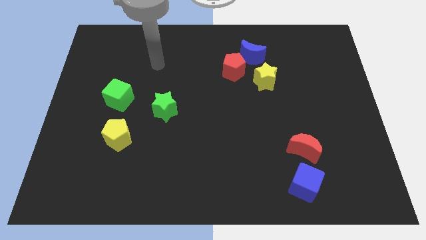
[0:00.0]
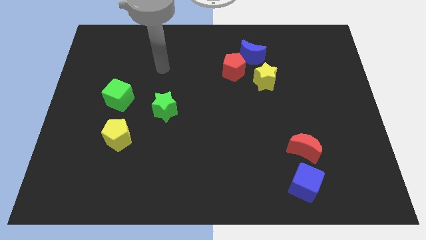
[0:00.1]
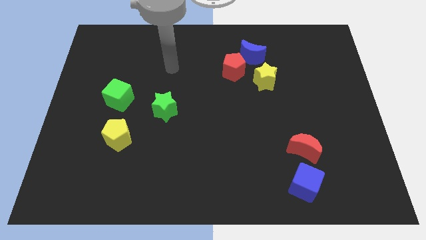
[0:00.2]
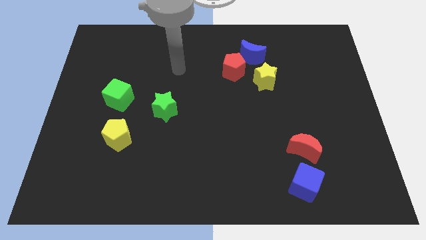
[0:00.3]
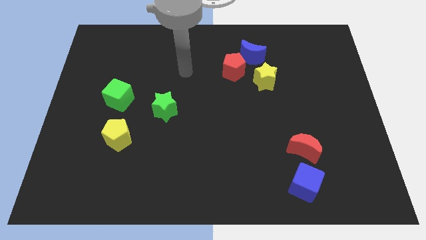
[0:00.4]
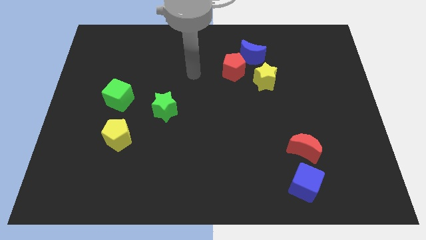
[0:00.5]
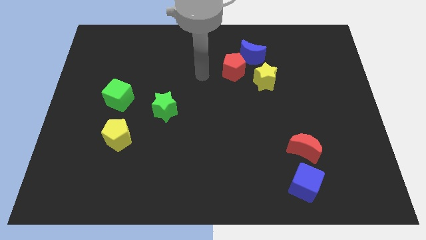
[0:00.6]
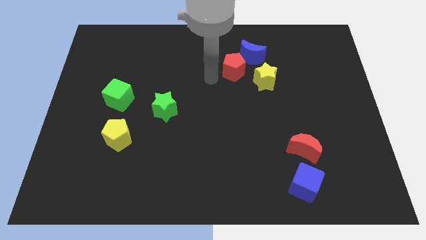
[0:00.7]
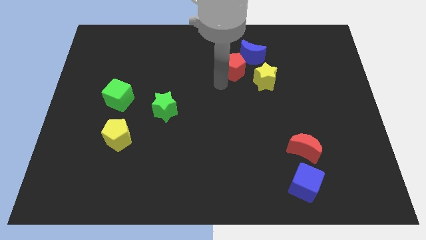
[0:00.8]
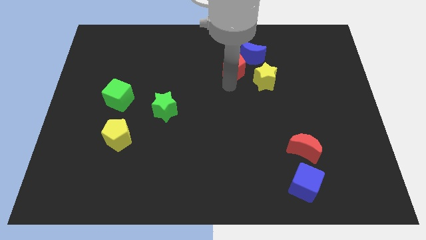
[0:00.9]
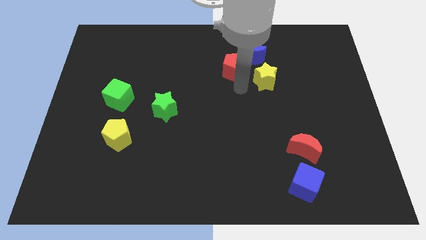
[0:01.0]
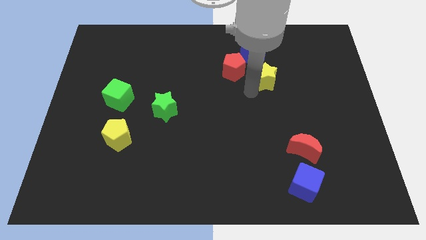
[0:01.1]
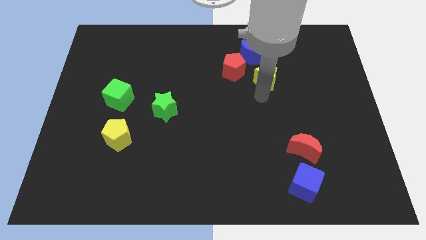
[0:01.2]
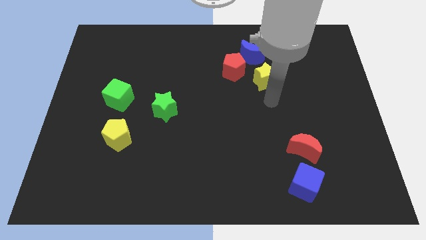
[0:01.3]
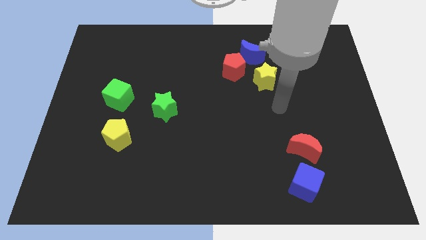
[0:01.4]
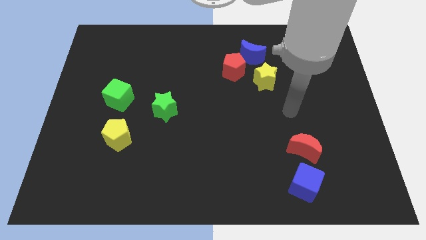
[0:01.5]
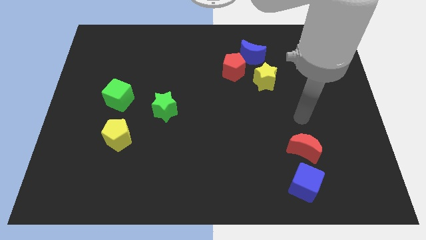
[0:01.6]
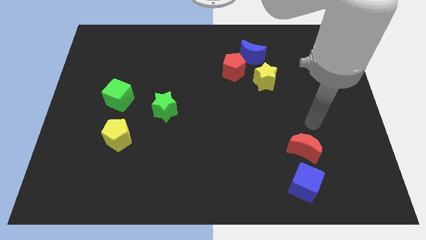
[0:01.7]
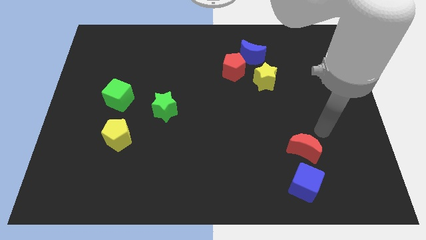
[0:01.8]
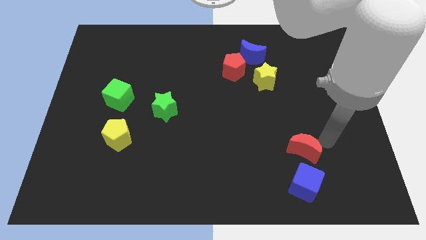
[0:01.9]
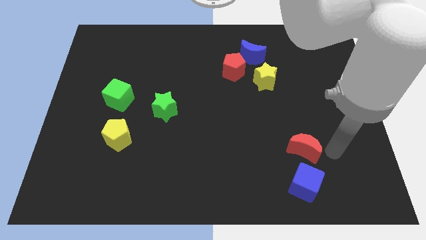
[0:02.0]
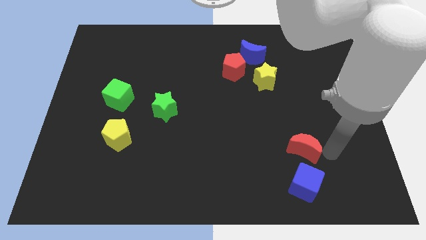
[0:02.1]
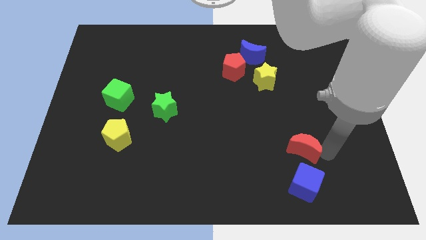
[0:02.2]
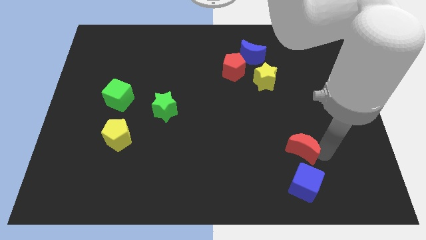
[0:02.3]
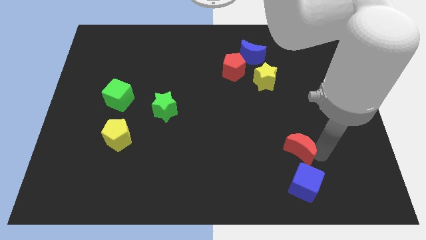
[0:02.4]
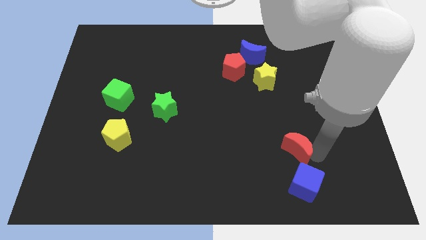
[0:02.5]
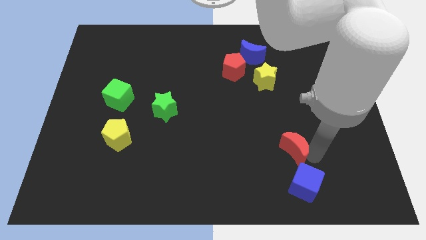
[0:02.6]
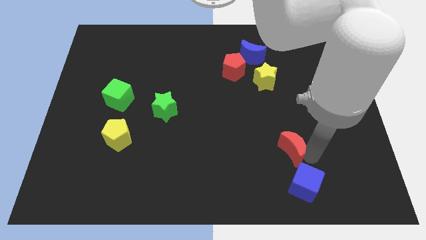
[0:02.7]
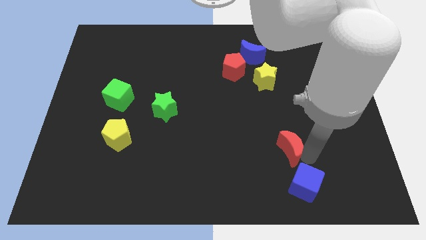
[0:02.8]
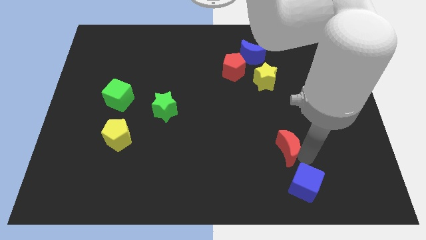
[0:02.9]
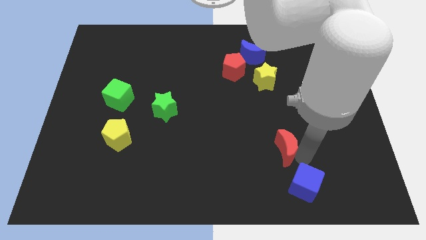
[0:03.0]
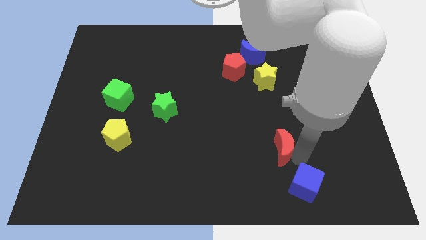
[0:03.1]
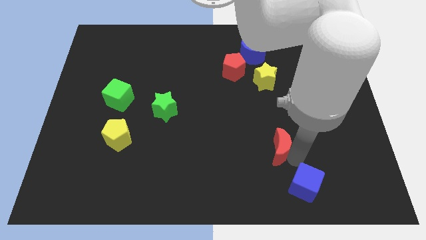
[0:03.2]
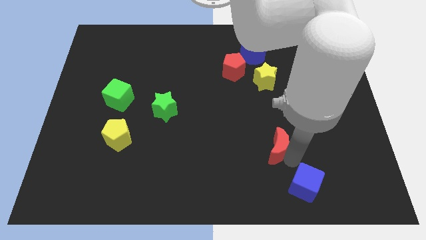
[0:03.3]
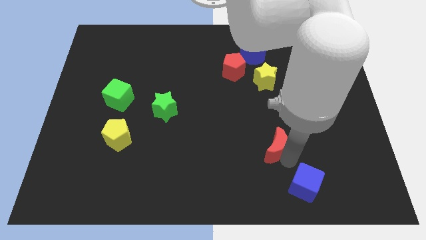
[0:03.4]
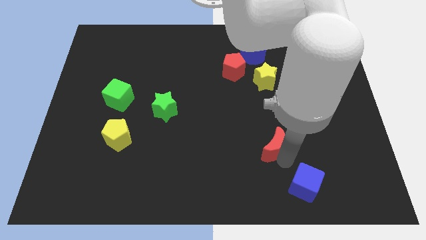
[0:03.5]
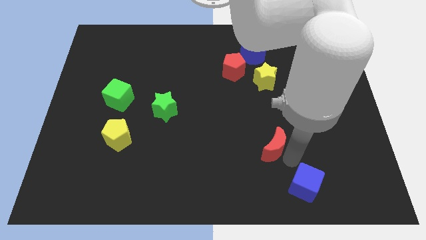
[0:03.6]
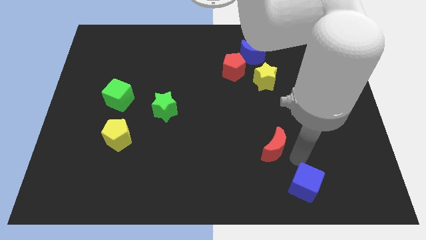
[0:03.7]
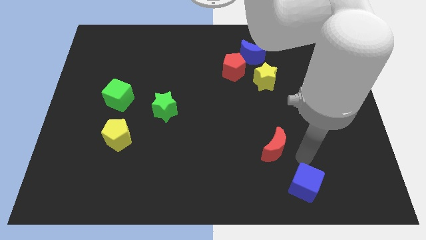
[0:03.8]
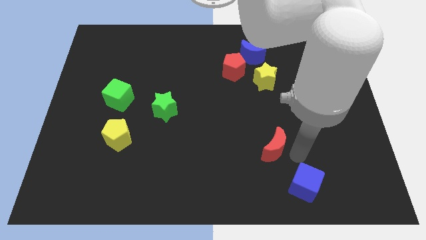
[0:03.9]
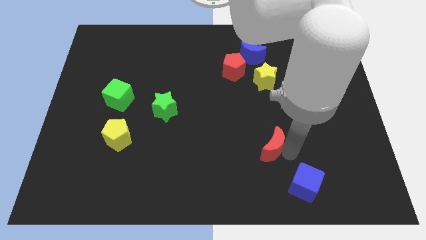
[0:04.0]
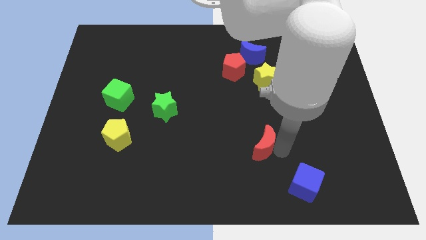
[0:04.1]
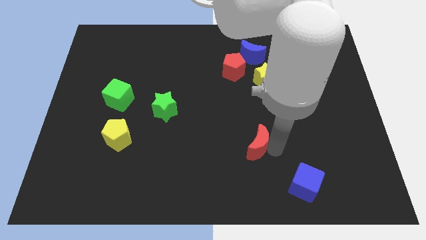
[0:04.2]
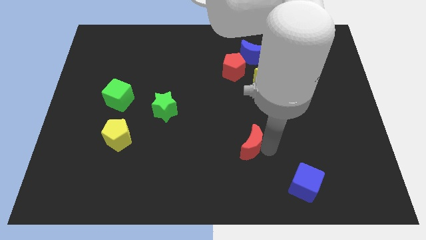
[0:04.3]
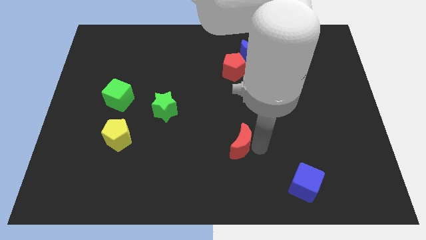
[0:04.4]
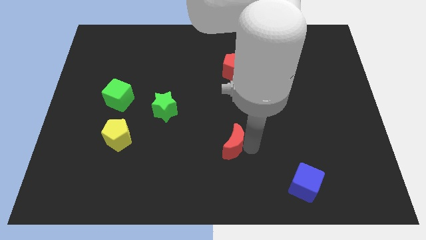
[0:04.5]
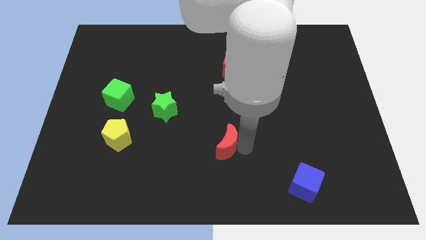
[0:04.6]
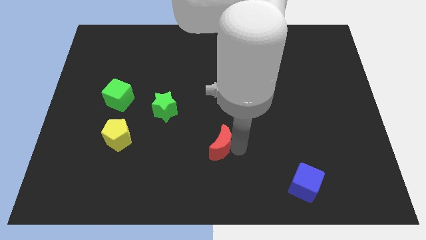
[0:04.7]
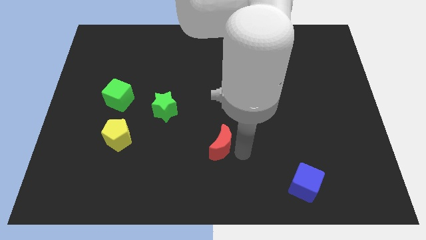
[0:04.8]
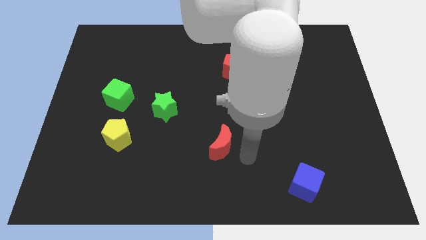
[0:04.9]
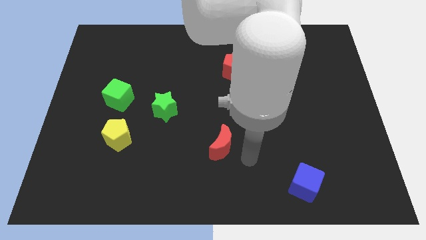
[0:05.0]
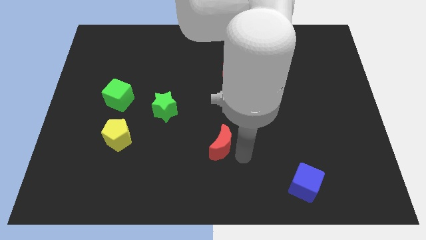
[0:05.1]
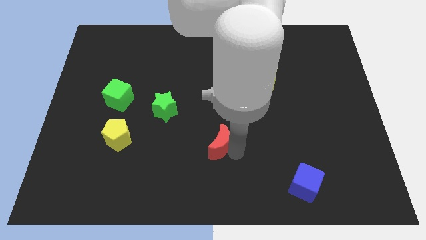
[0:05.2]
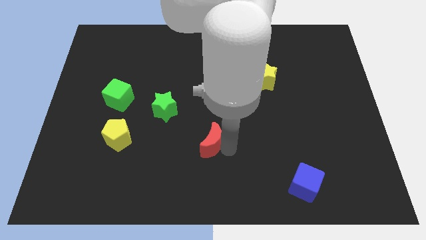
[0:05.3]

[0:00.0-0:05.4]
move the red moon to the left

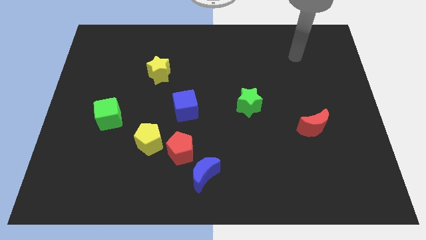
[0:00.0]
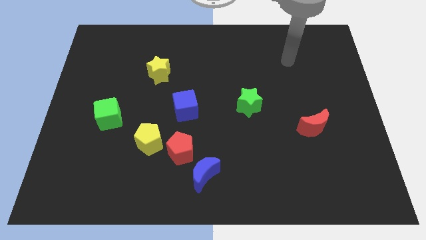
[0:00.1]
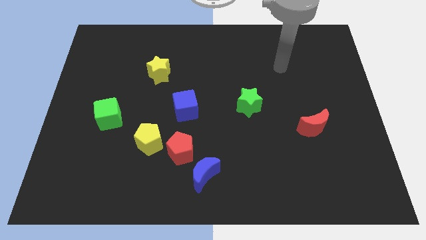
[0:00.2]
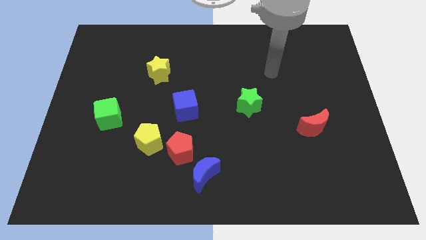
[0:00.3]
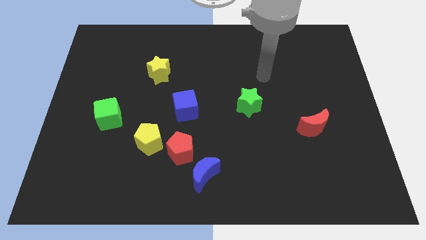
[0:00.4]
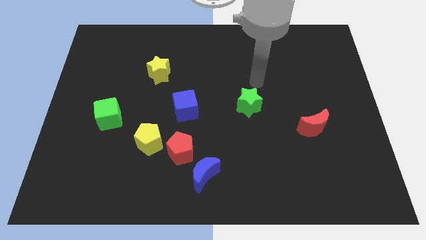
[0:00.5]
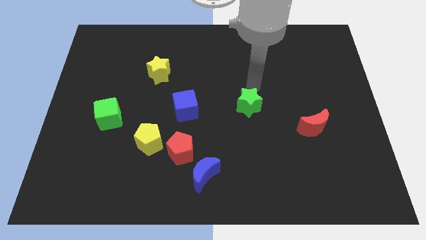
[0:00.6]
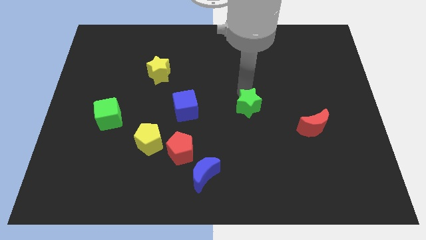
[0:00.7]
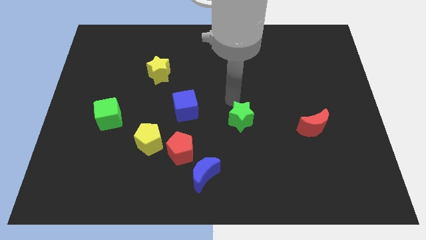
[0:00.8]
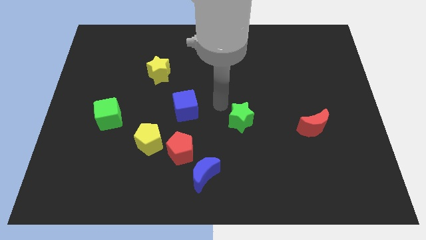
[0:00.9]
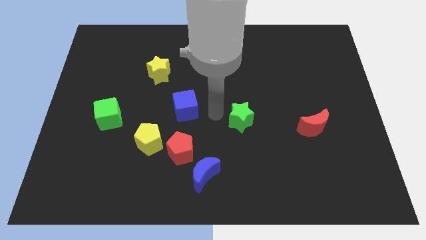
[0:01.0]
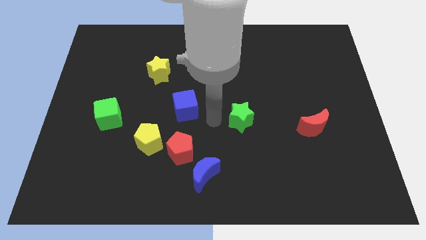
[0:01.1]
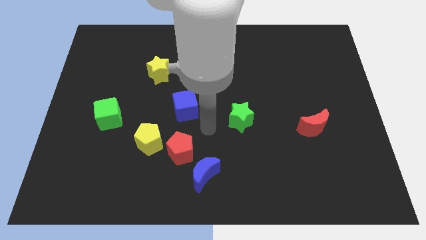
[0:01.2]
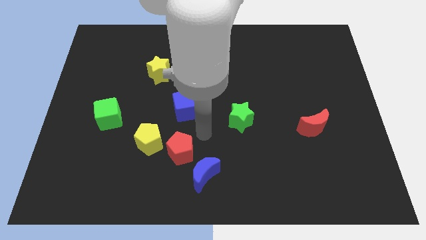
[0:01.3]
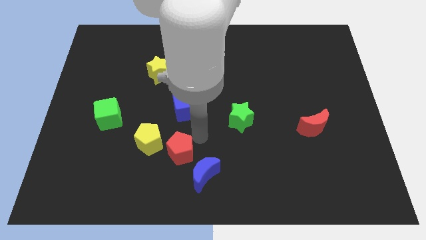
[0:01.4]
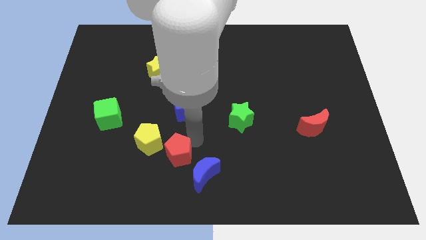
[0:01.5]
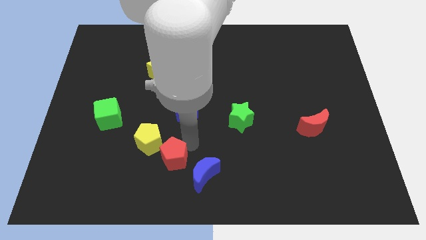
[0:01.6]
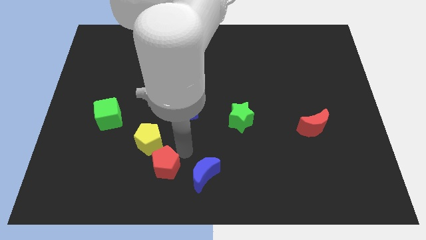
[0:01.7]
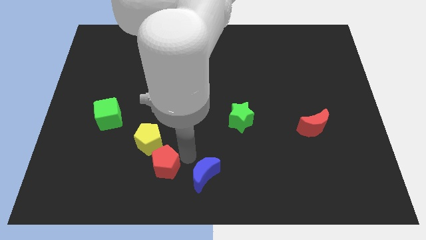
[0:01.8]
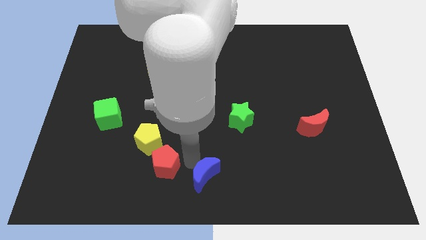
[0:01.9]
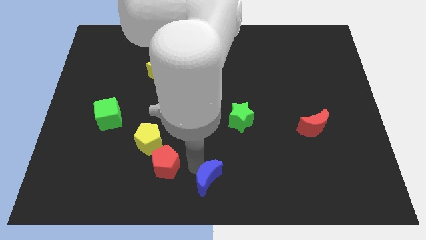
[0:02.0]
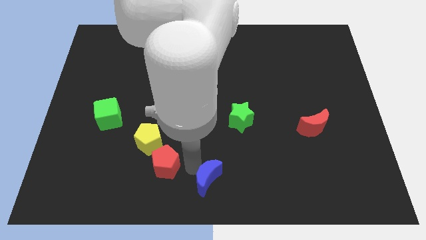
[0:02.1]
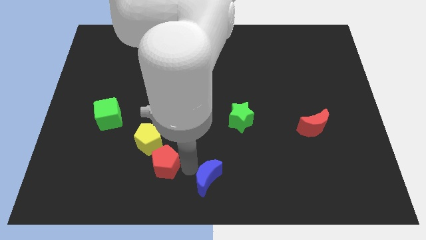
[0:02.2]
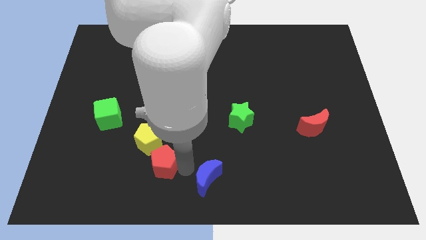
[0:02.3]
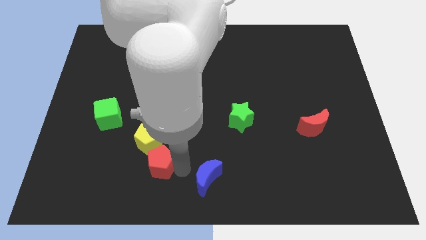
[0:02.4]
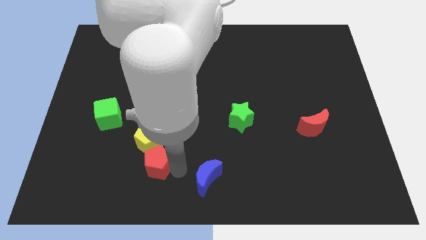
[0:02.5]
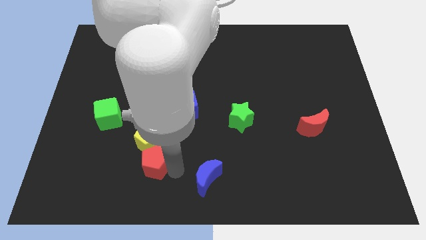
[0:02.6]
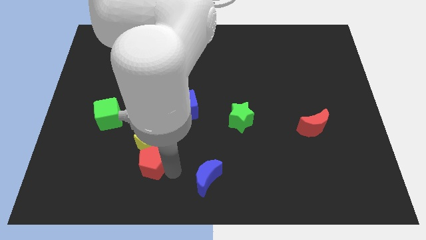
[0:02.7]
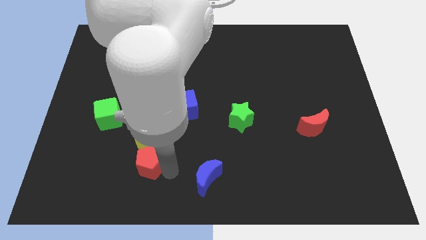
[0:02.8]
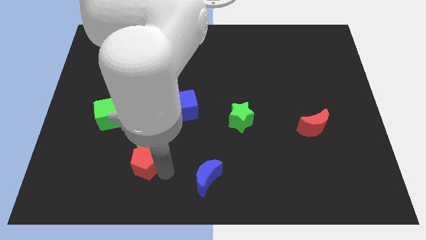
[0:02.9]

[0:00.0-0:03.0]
slightly push the red pentagon left
